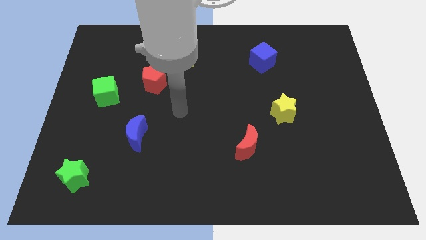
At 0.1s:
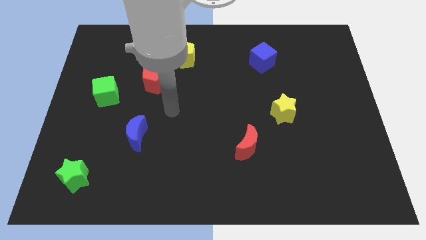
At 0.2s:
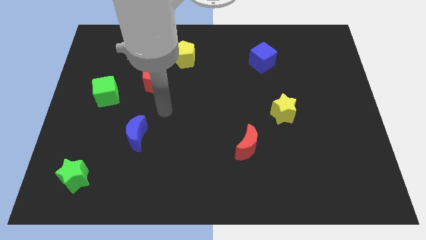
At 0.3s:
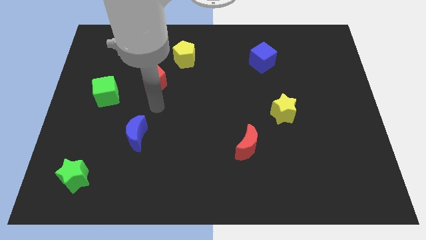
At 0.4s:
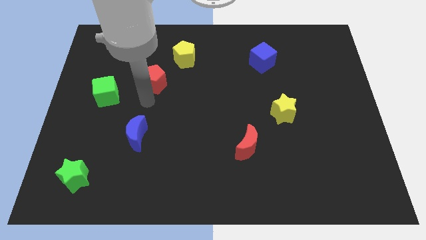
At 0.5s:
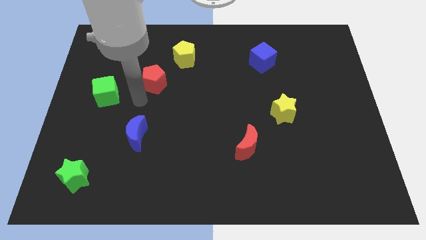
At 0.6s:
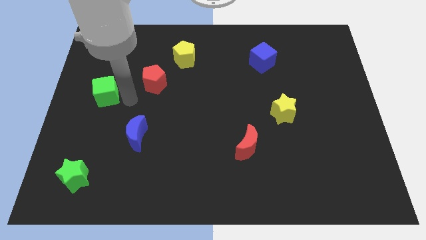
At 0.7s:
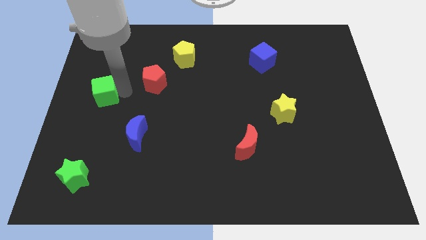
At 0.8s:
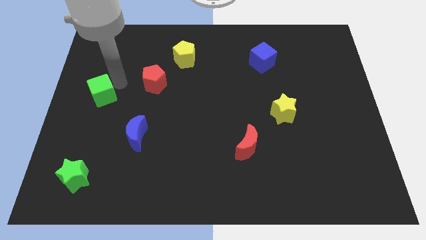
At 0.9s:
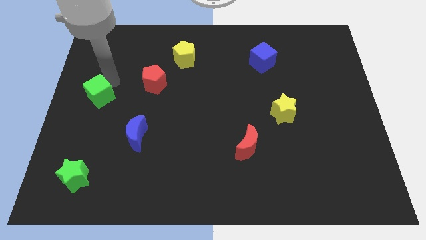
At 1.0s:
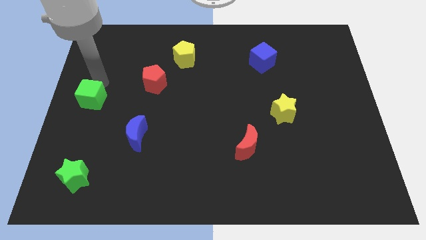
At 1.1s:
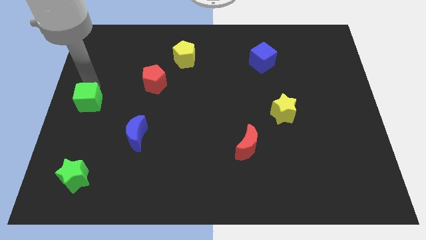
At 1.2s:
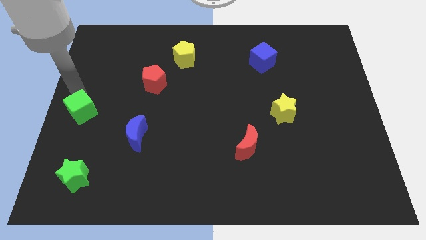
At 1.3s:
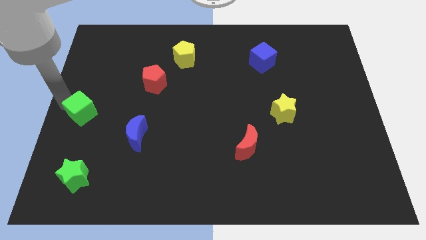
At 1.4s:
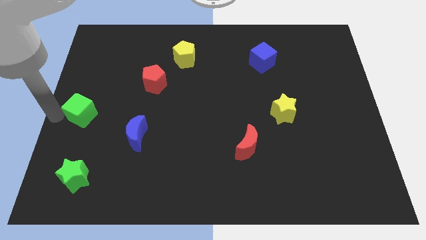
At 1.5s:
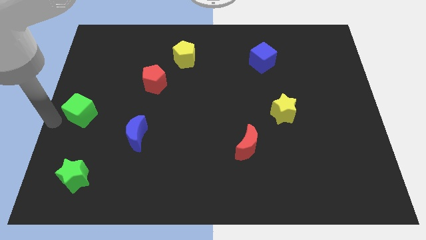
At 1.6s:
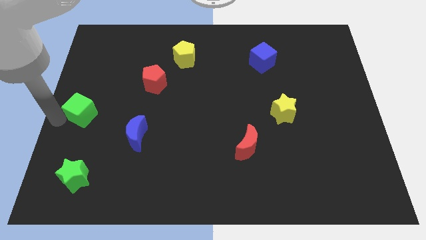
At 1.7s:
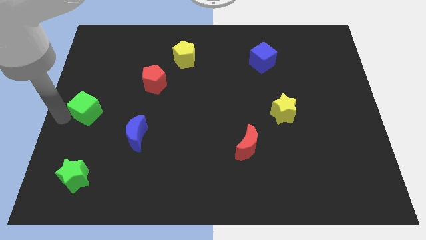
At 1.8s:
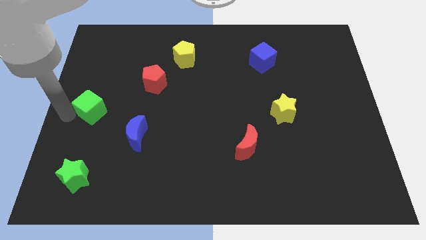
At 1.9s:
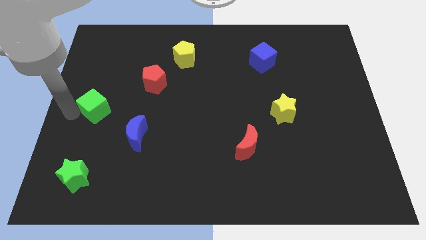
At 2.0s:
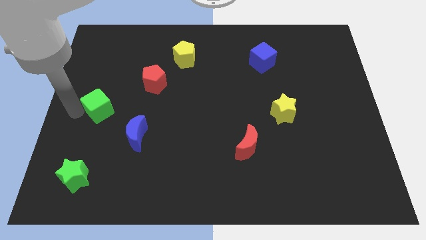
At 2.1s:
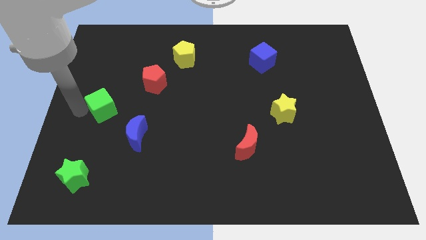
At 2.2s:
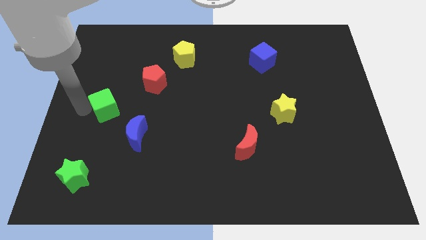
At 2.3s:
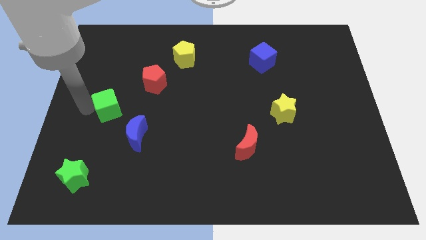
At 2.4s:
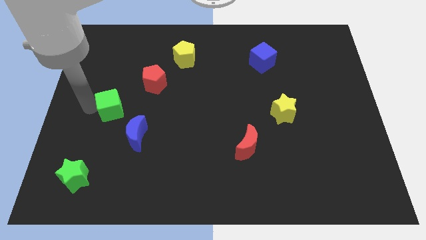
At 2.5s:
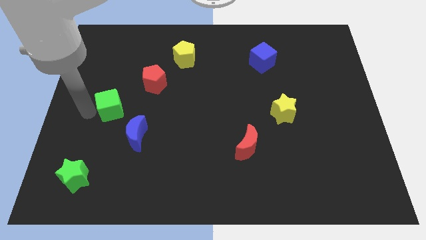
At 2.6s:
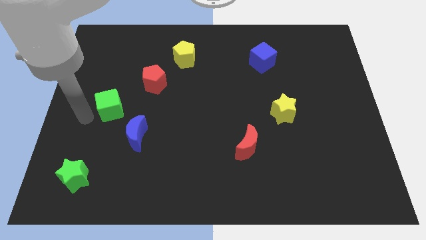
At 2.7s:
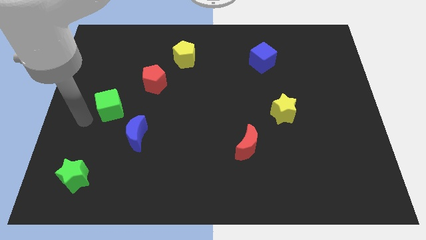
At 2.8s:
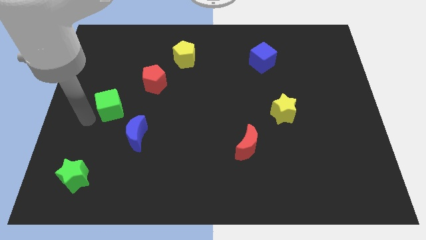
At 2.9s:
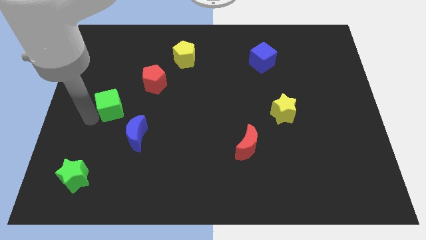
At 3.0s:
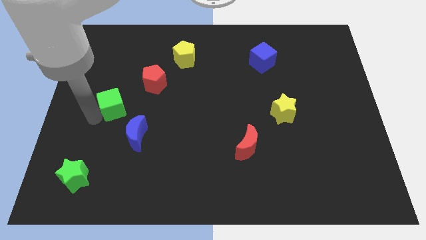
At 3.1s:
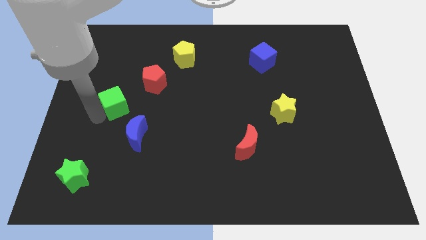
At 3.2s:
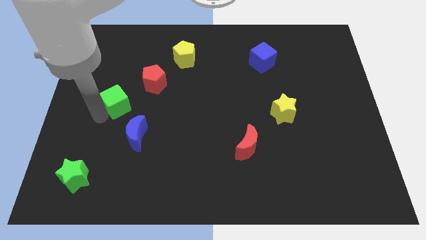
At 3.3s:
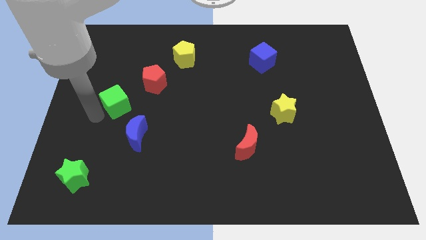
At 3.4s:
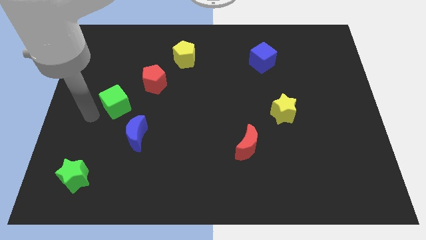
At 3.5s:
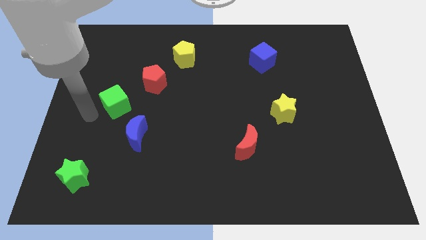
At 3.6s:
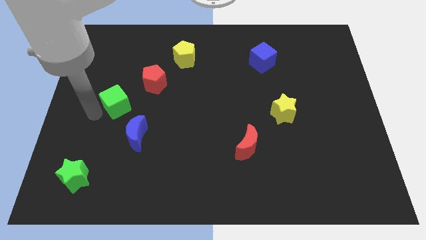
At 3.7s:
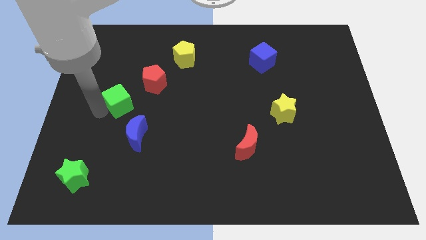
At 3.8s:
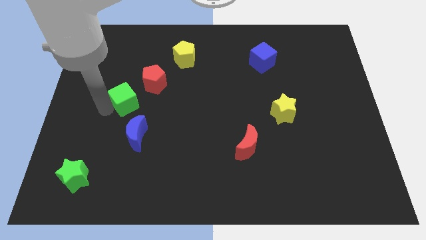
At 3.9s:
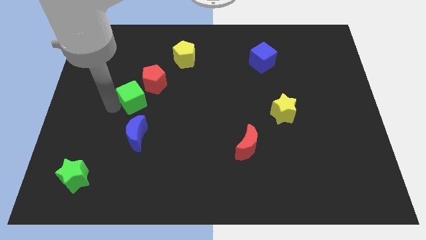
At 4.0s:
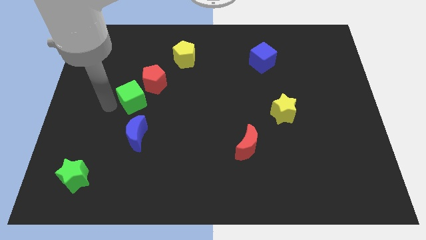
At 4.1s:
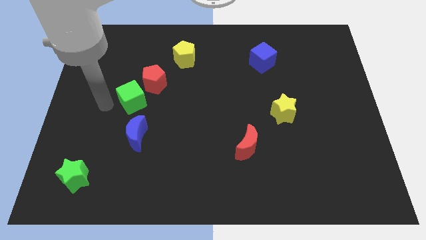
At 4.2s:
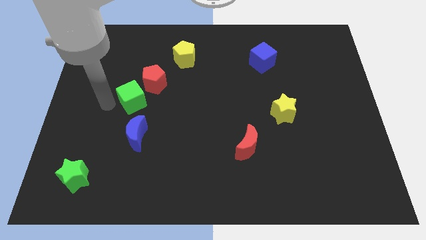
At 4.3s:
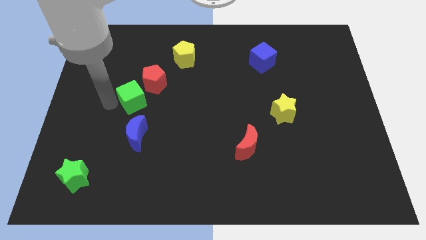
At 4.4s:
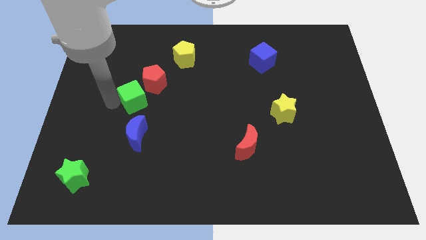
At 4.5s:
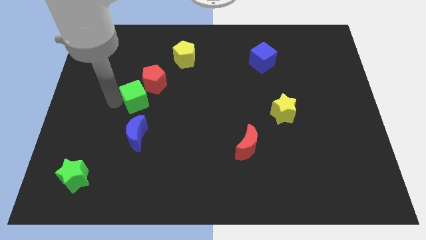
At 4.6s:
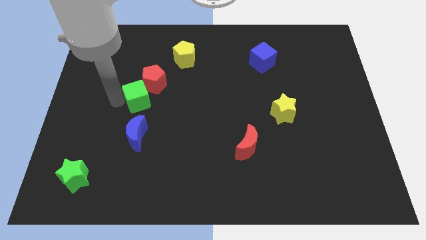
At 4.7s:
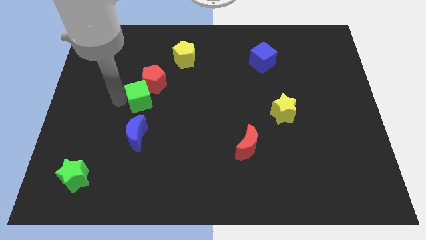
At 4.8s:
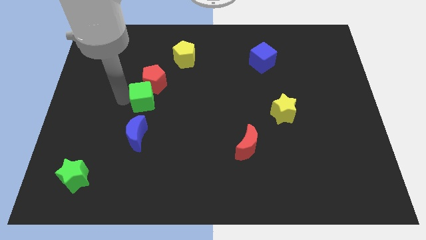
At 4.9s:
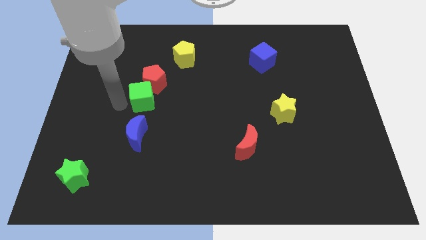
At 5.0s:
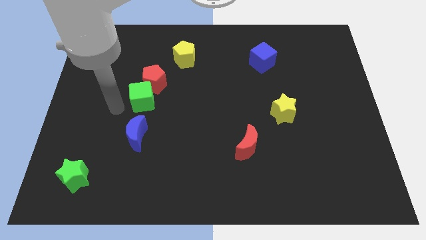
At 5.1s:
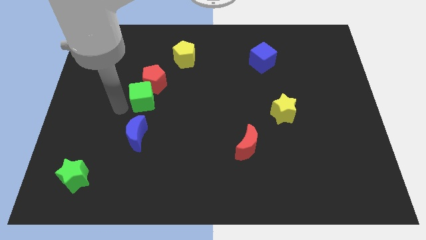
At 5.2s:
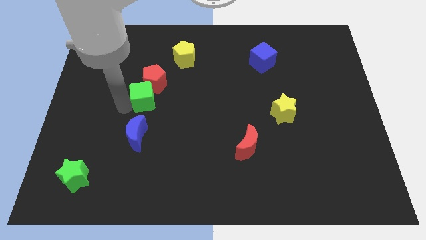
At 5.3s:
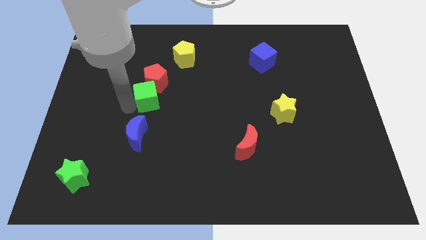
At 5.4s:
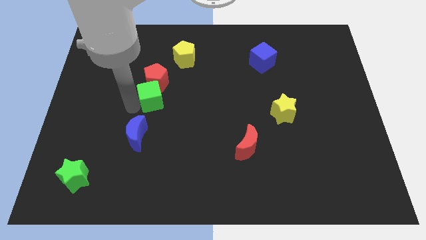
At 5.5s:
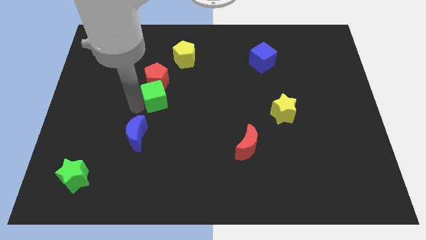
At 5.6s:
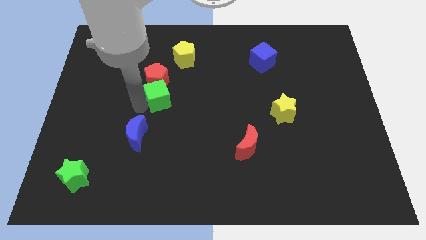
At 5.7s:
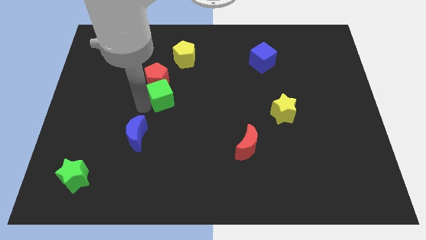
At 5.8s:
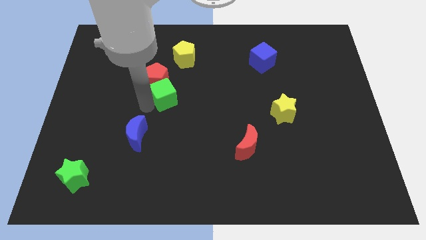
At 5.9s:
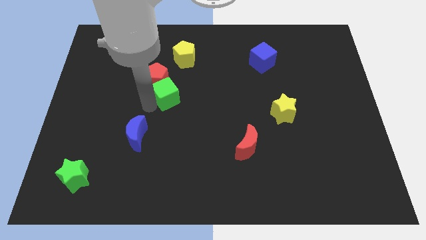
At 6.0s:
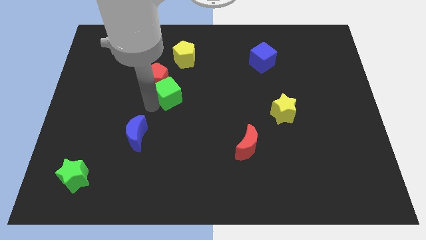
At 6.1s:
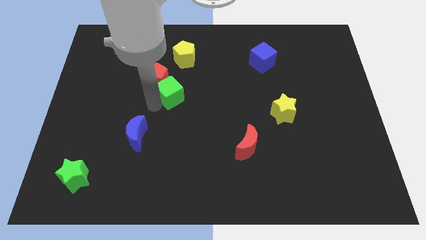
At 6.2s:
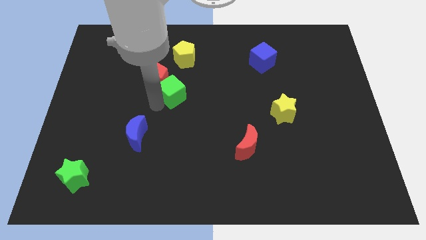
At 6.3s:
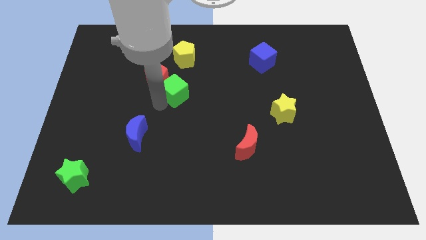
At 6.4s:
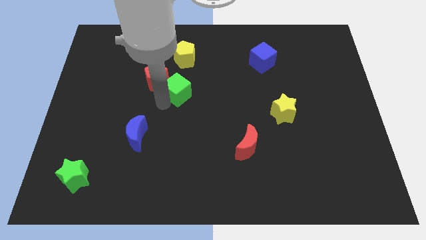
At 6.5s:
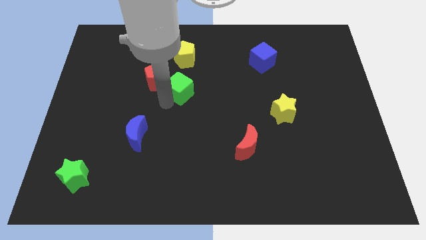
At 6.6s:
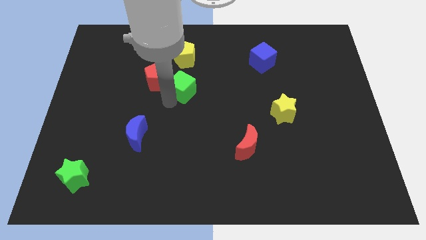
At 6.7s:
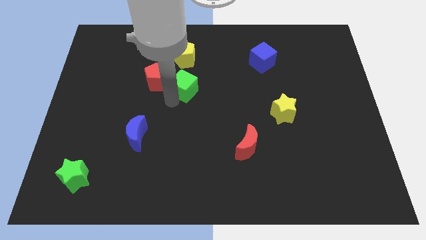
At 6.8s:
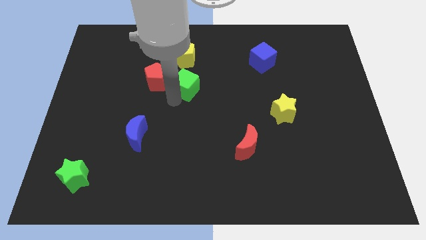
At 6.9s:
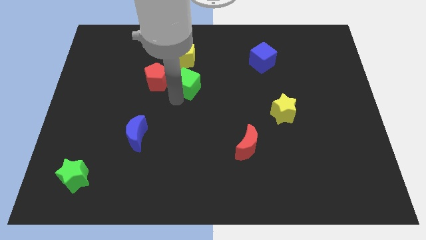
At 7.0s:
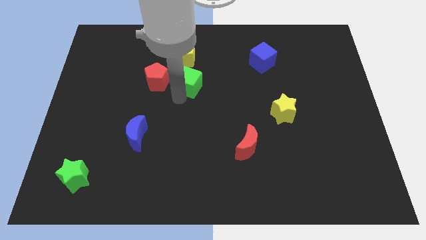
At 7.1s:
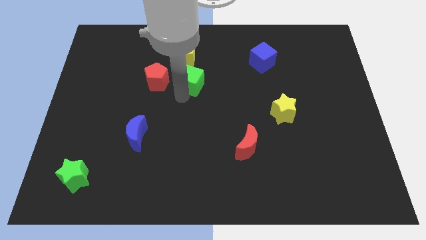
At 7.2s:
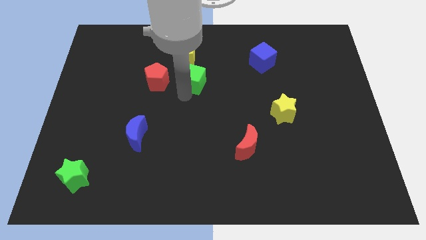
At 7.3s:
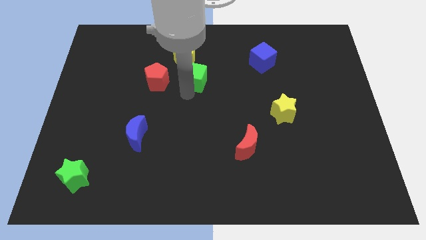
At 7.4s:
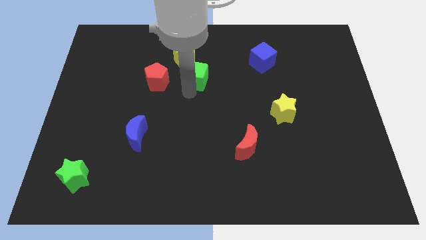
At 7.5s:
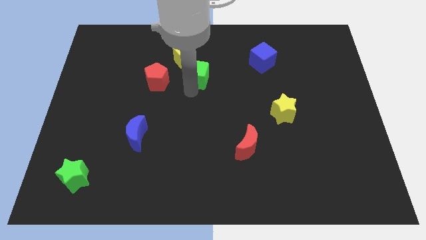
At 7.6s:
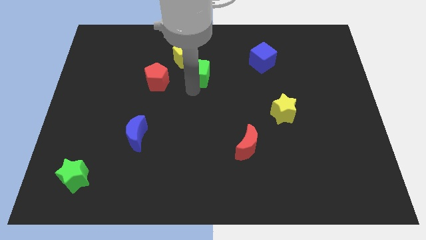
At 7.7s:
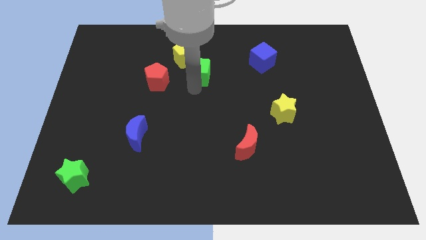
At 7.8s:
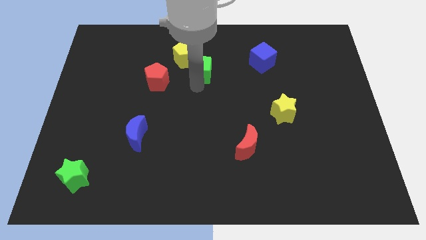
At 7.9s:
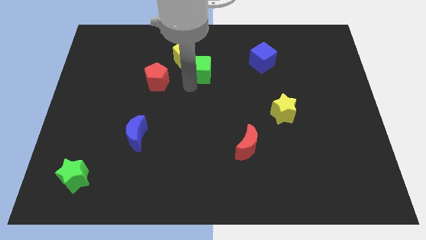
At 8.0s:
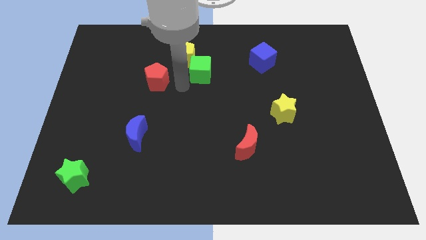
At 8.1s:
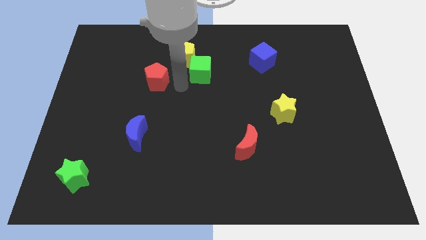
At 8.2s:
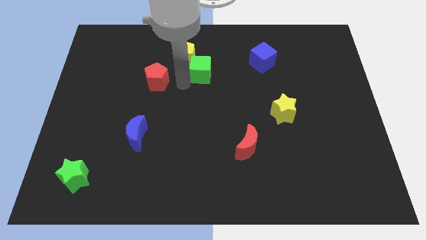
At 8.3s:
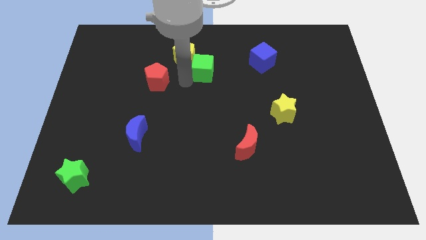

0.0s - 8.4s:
move the green cube right of the yellow pentagon
